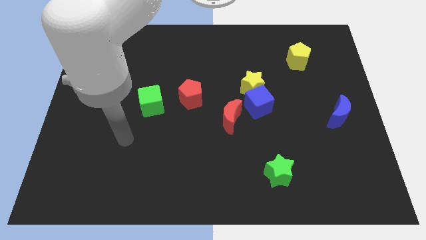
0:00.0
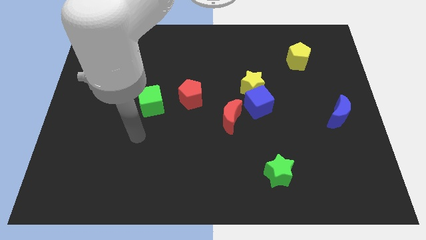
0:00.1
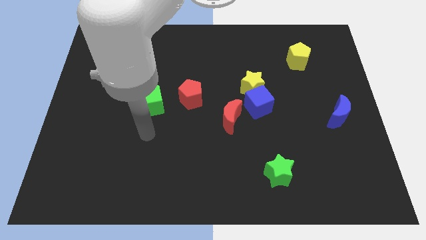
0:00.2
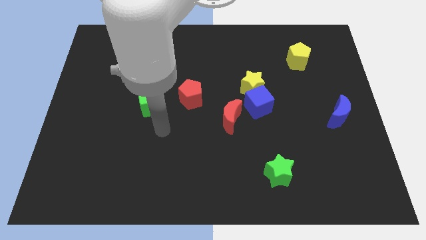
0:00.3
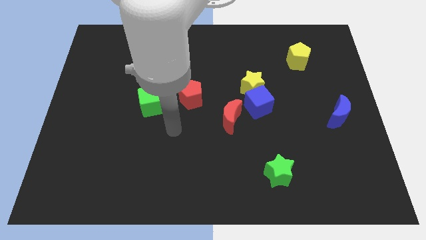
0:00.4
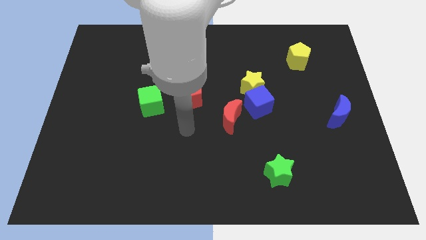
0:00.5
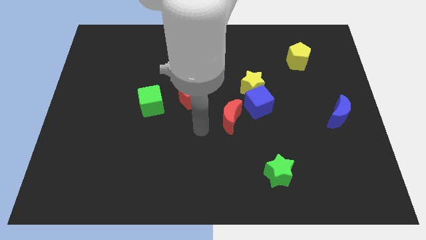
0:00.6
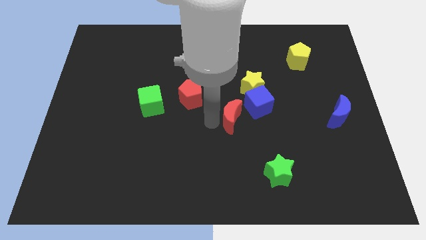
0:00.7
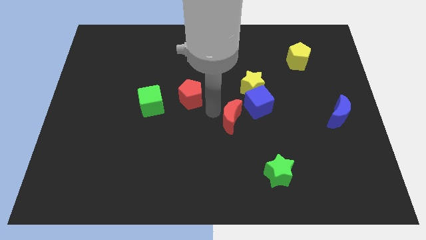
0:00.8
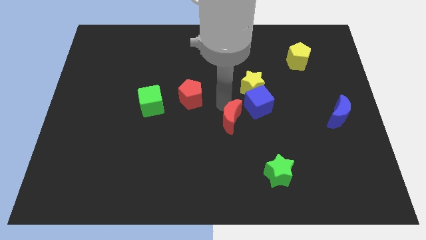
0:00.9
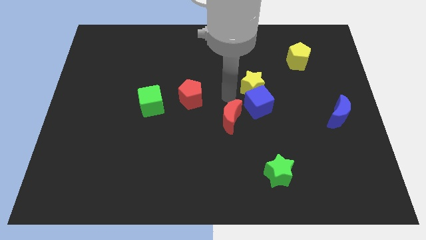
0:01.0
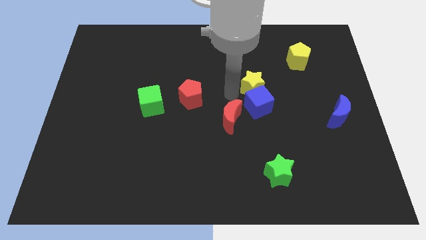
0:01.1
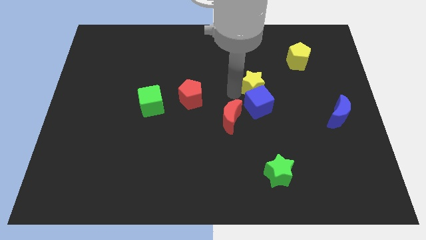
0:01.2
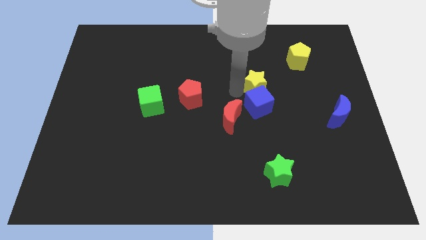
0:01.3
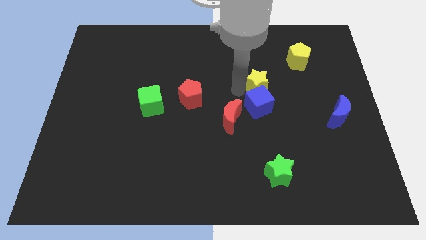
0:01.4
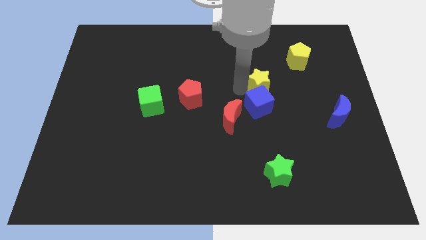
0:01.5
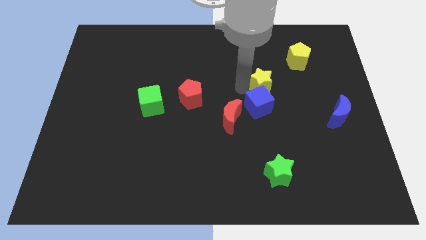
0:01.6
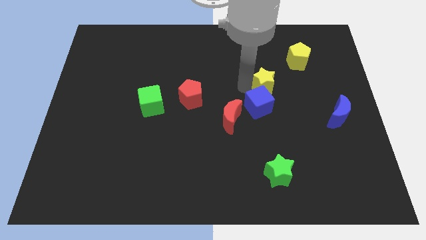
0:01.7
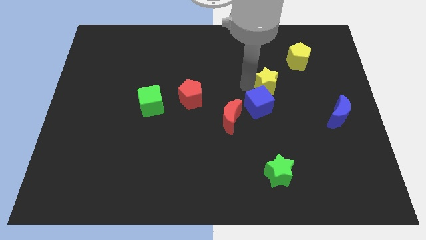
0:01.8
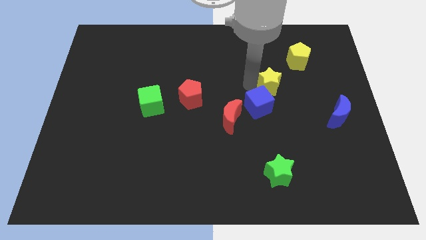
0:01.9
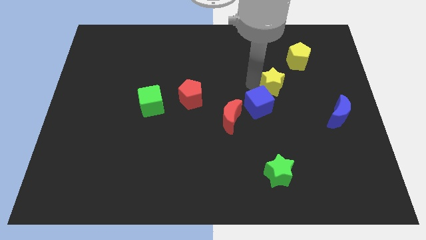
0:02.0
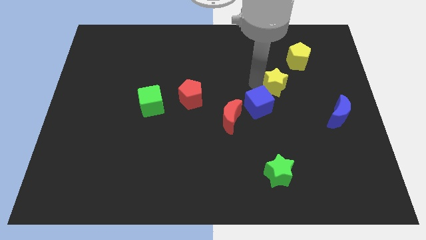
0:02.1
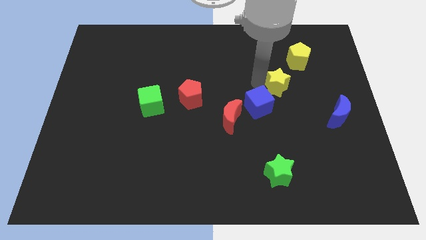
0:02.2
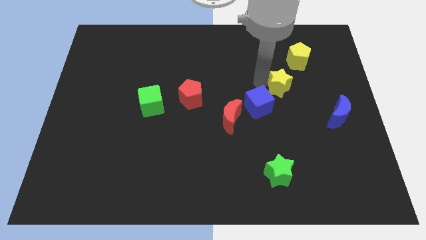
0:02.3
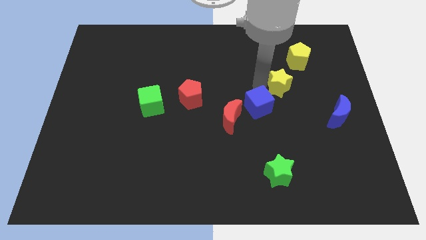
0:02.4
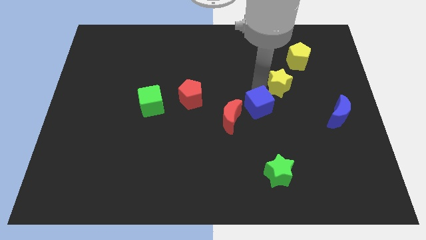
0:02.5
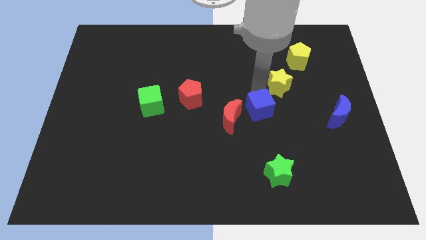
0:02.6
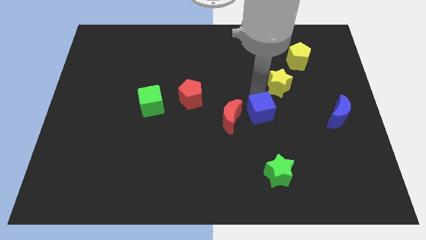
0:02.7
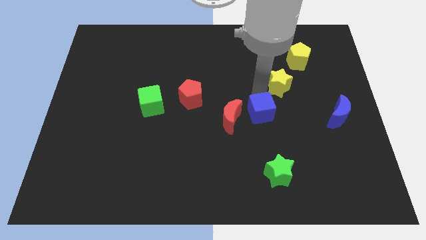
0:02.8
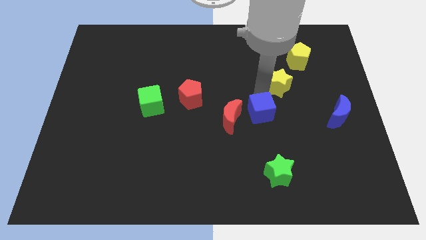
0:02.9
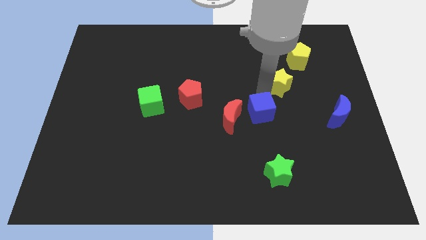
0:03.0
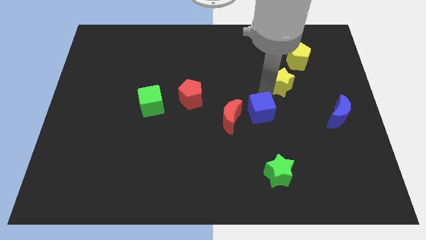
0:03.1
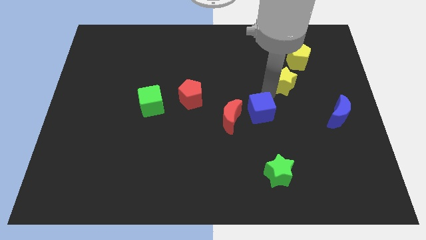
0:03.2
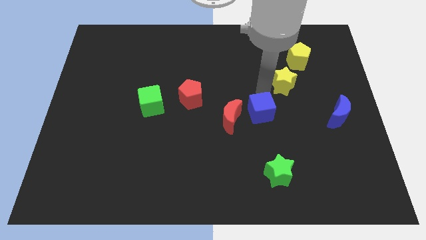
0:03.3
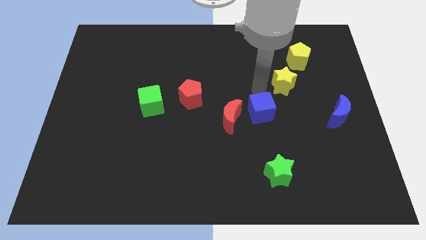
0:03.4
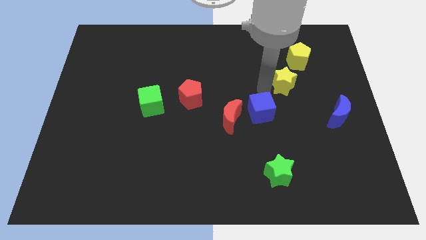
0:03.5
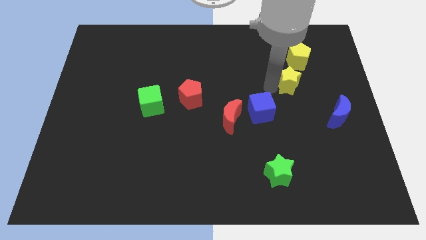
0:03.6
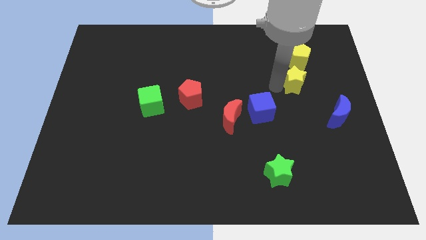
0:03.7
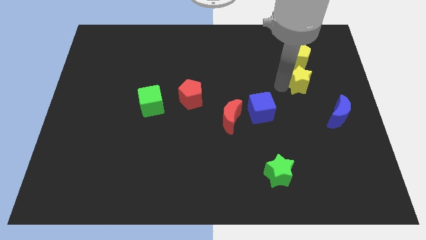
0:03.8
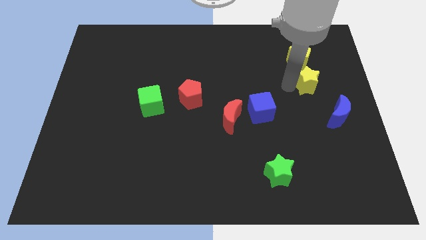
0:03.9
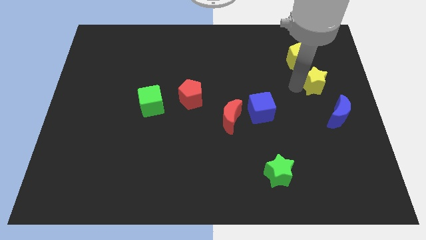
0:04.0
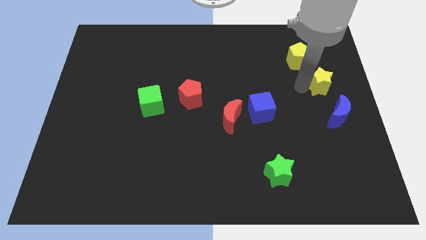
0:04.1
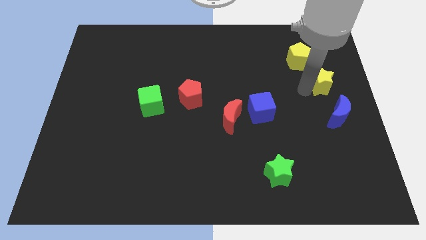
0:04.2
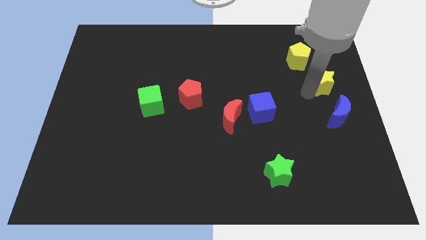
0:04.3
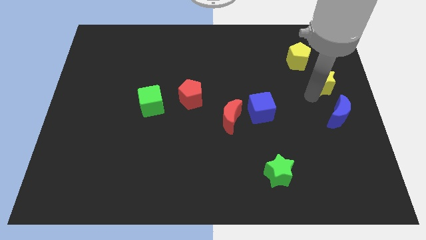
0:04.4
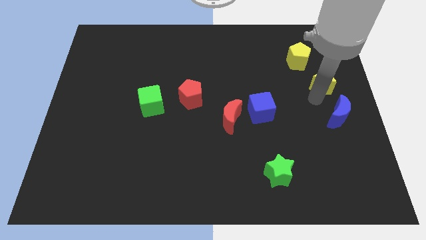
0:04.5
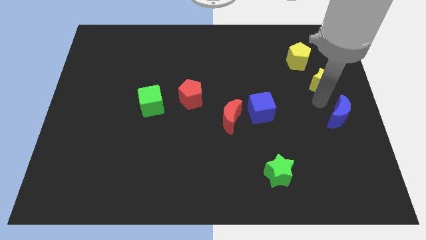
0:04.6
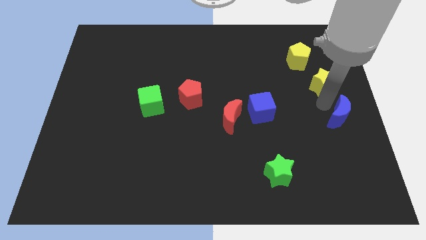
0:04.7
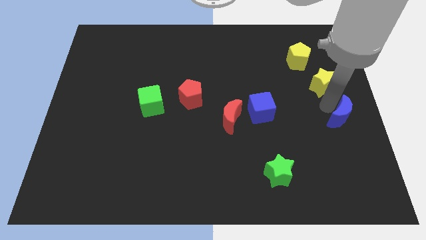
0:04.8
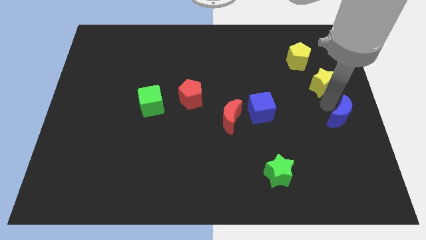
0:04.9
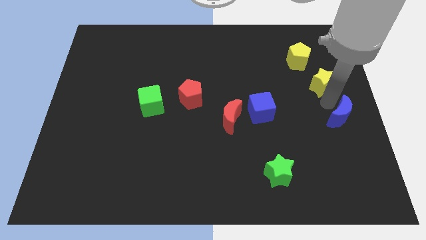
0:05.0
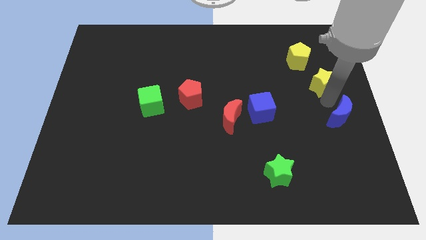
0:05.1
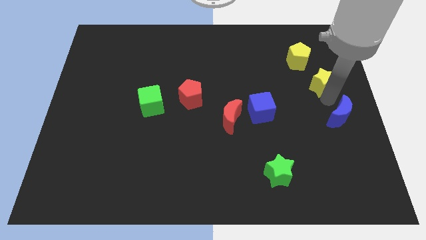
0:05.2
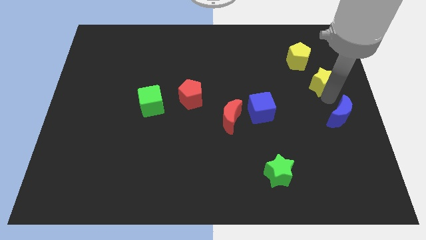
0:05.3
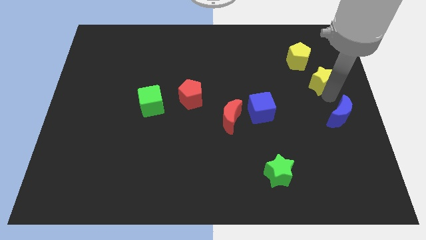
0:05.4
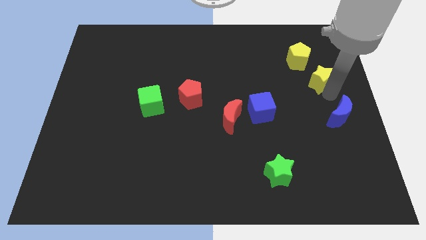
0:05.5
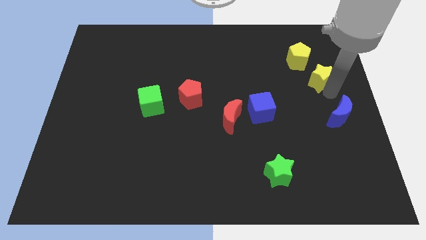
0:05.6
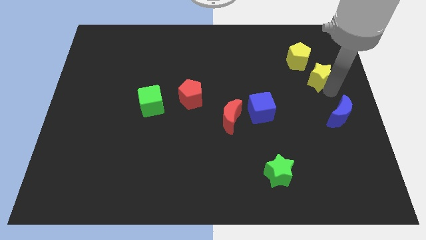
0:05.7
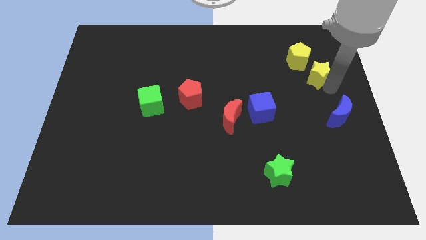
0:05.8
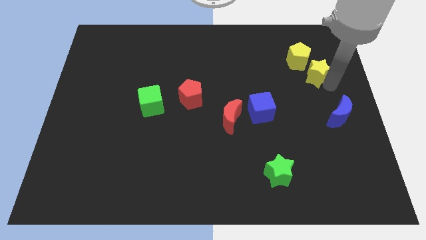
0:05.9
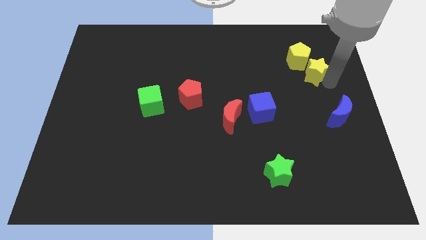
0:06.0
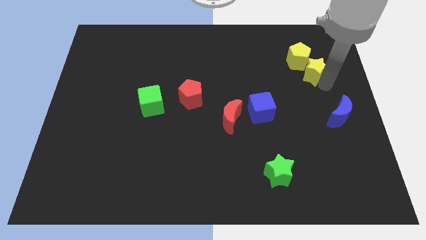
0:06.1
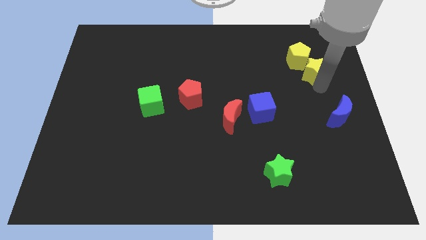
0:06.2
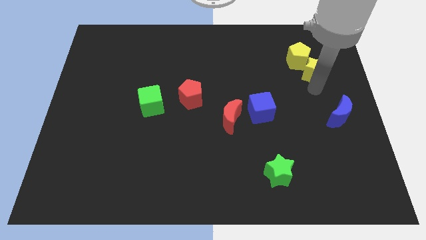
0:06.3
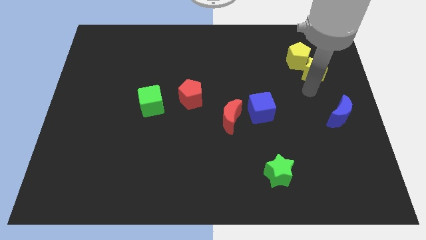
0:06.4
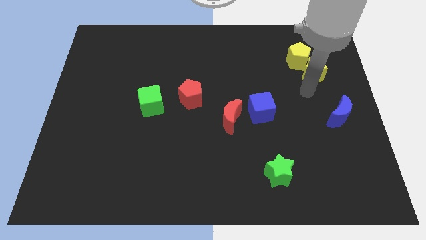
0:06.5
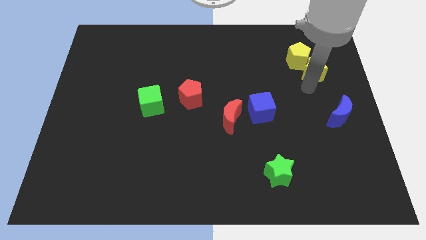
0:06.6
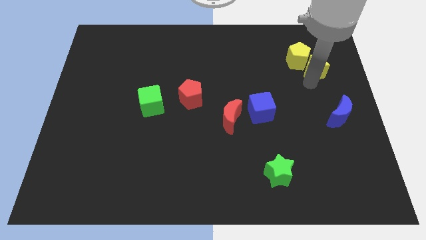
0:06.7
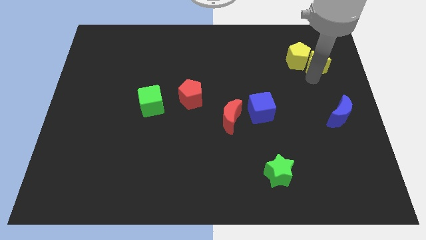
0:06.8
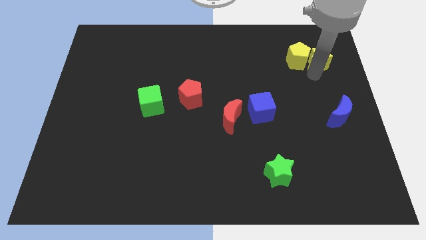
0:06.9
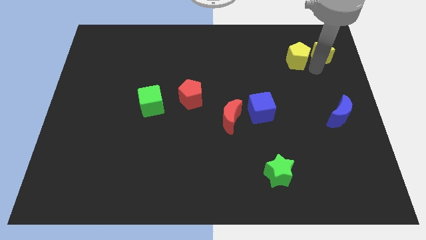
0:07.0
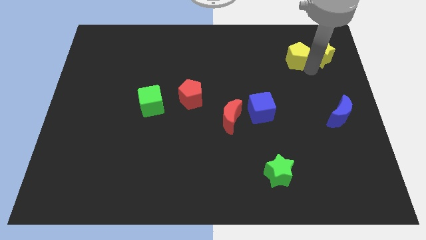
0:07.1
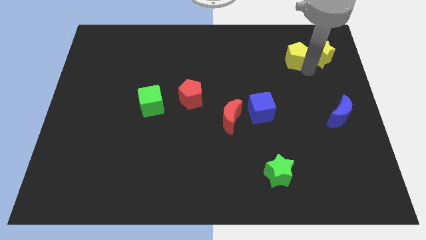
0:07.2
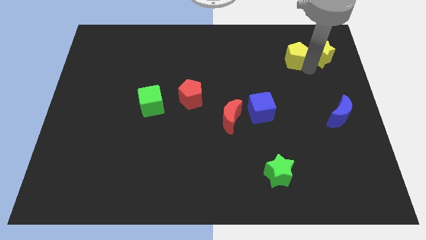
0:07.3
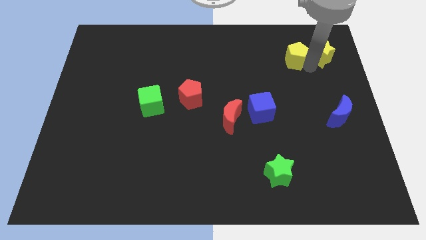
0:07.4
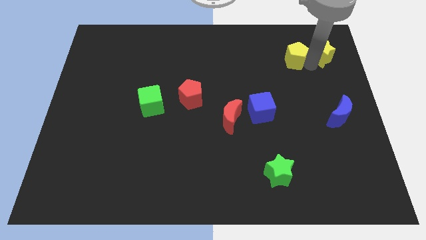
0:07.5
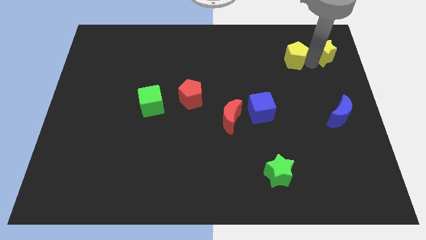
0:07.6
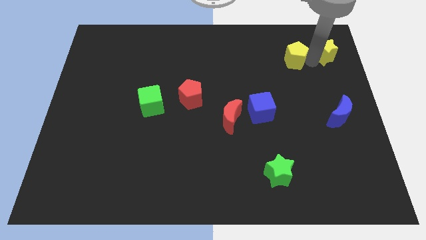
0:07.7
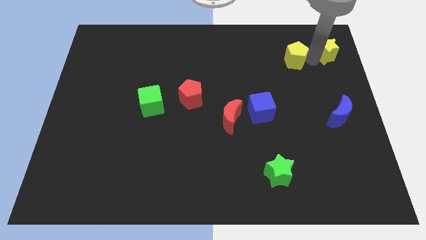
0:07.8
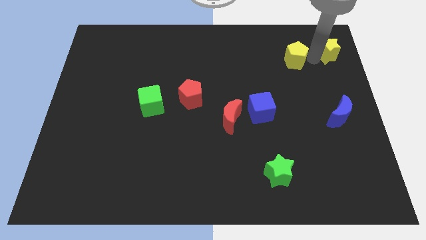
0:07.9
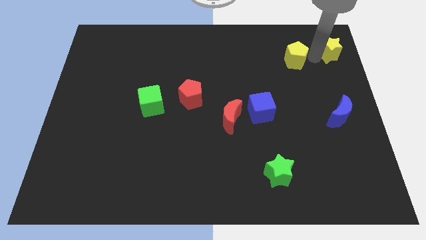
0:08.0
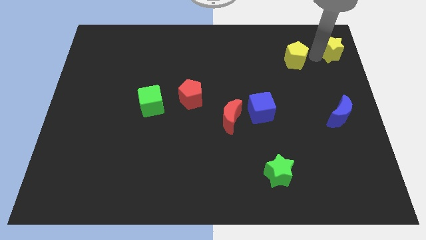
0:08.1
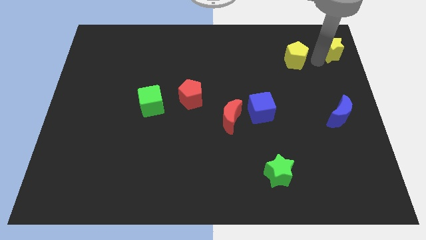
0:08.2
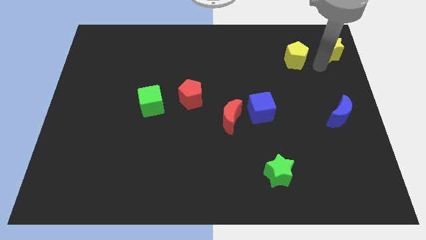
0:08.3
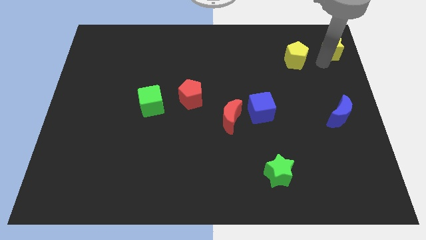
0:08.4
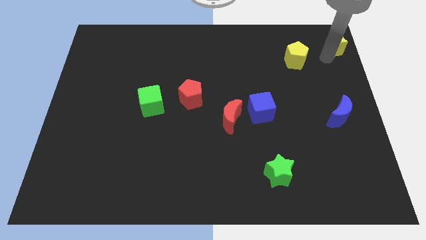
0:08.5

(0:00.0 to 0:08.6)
put the yellow star to the top right corner
